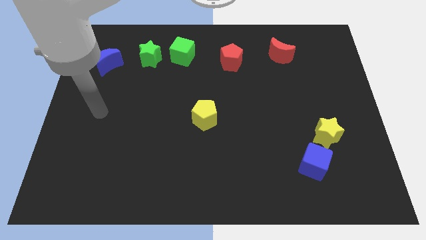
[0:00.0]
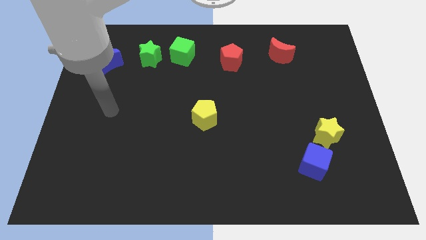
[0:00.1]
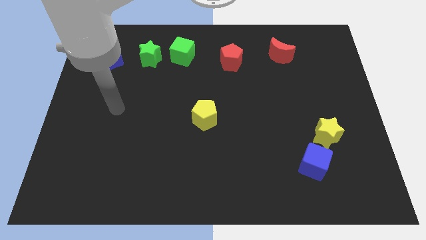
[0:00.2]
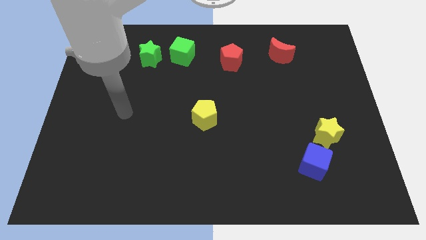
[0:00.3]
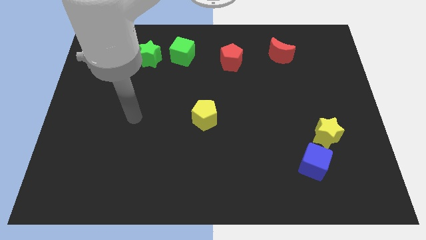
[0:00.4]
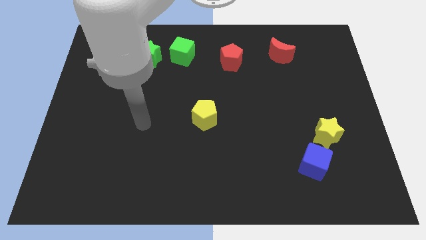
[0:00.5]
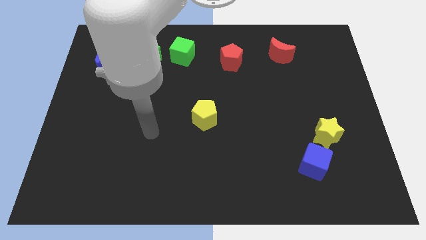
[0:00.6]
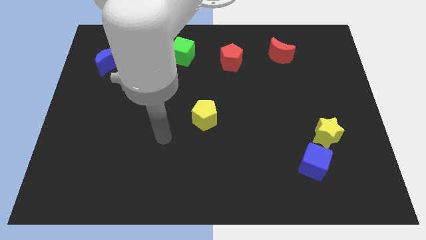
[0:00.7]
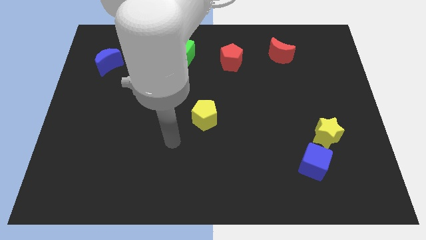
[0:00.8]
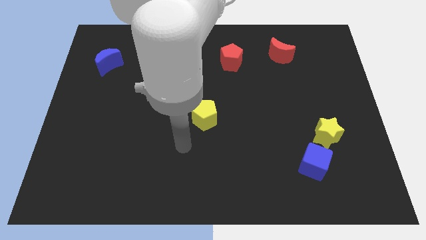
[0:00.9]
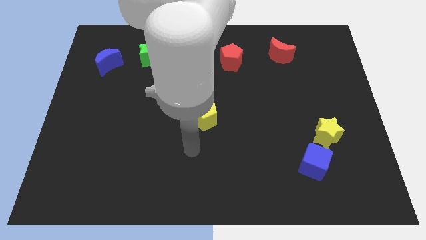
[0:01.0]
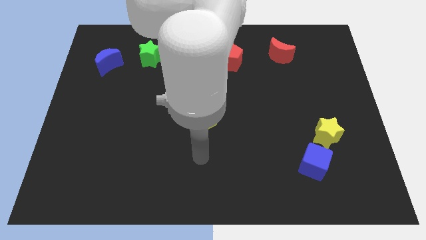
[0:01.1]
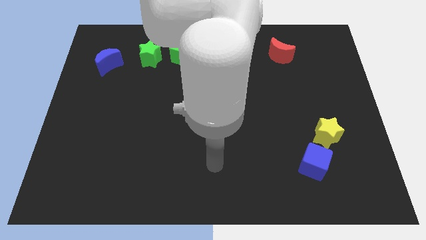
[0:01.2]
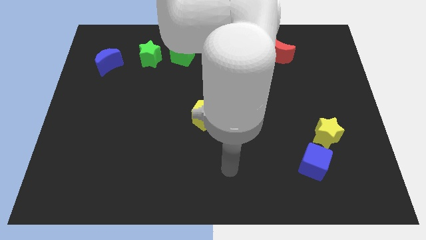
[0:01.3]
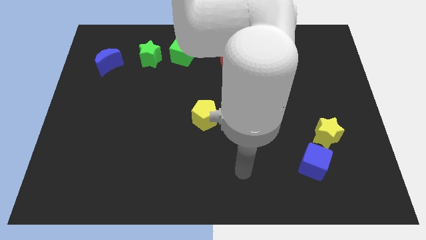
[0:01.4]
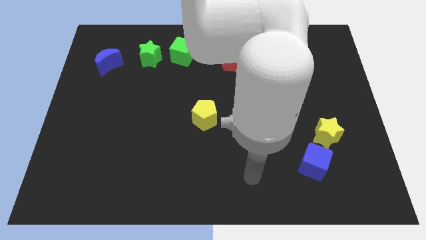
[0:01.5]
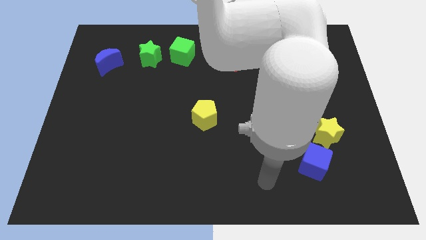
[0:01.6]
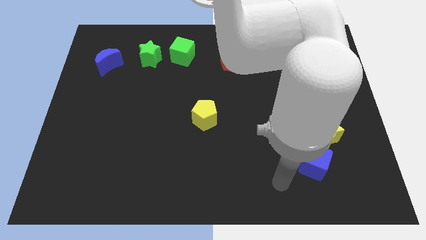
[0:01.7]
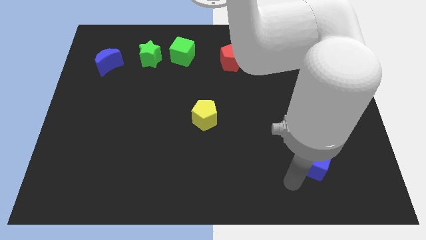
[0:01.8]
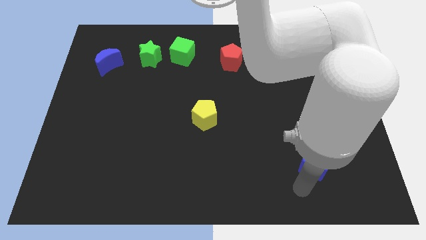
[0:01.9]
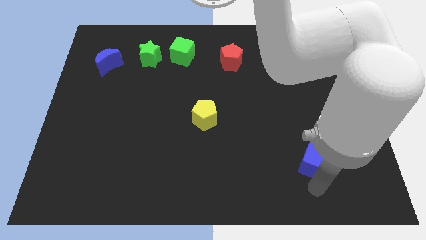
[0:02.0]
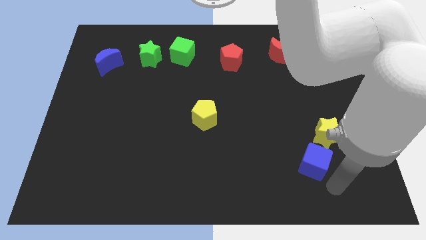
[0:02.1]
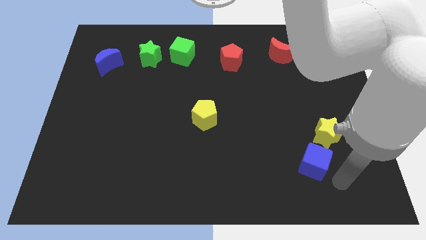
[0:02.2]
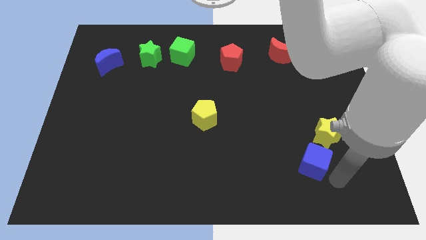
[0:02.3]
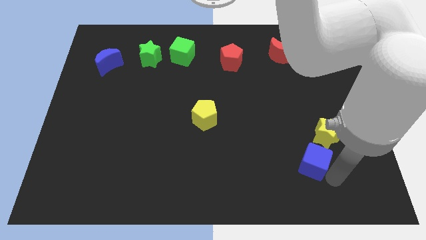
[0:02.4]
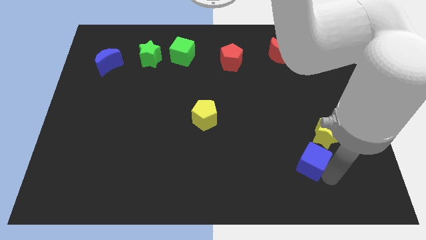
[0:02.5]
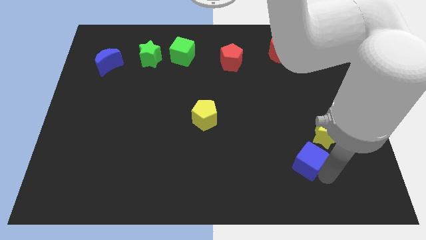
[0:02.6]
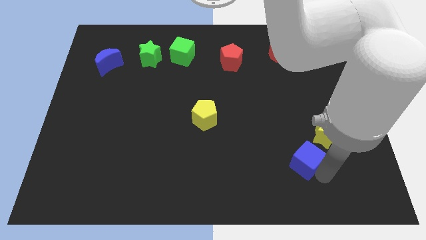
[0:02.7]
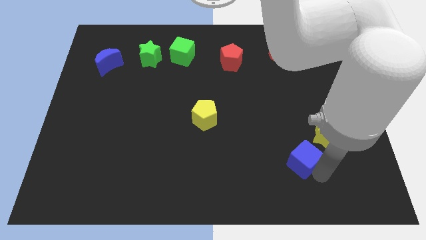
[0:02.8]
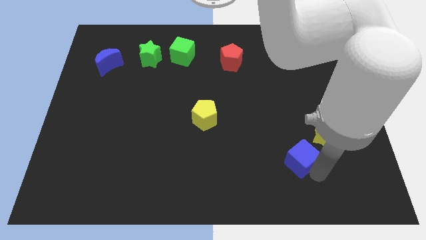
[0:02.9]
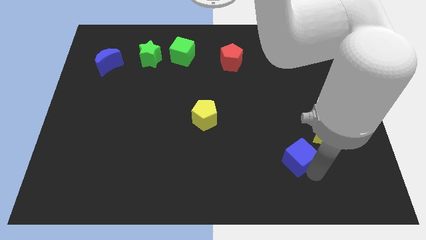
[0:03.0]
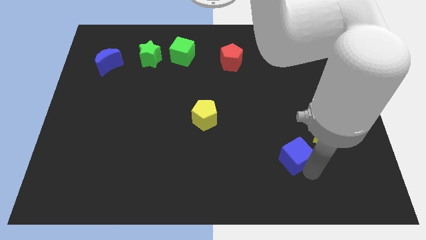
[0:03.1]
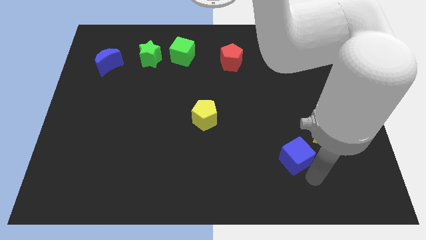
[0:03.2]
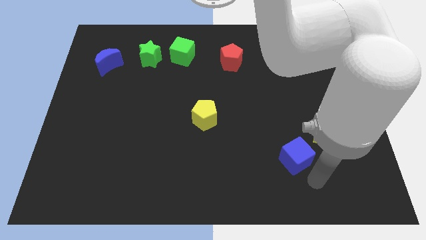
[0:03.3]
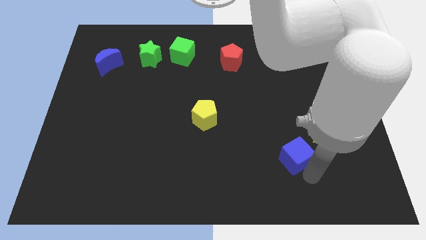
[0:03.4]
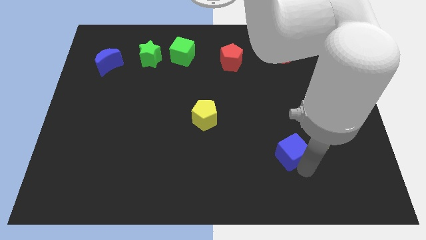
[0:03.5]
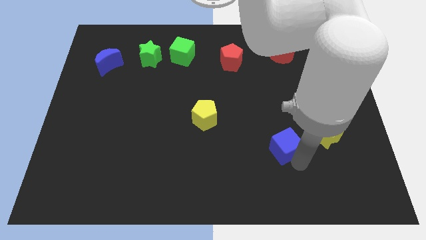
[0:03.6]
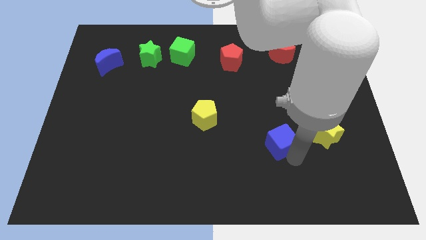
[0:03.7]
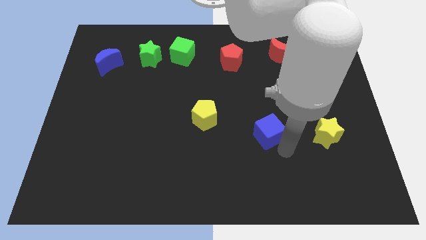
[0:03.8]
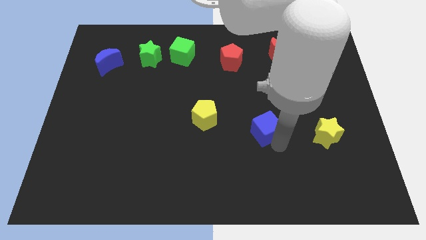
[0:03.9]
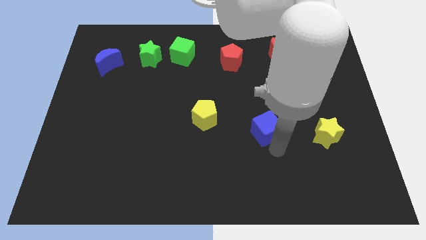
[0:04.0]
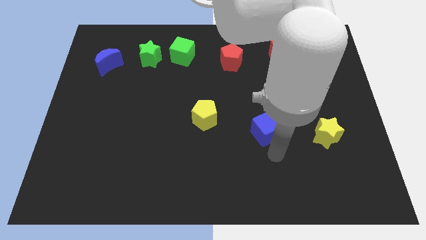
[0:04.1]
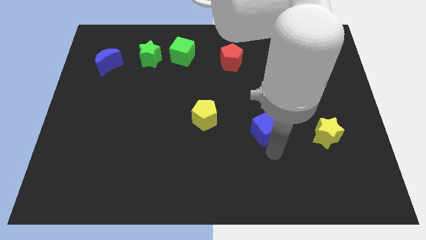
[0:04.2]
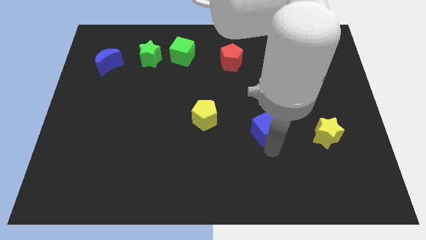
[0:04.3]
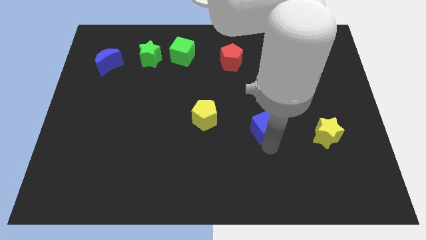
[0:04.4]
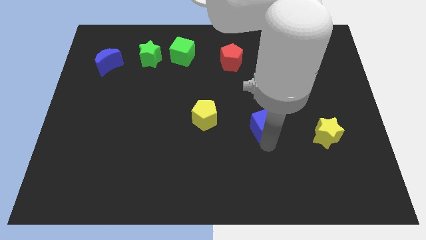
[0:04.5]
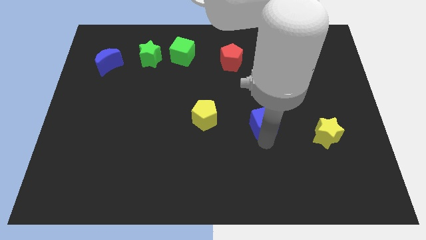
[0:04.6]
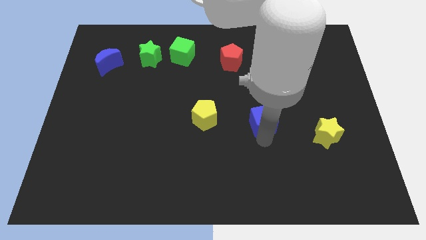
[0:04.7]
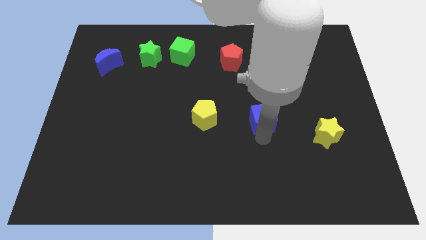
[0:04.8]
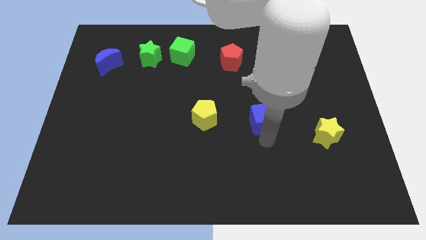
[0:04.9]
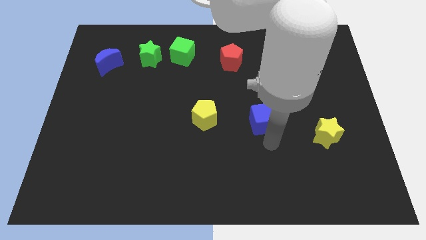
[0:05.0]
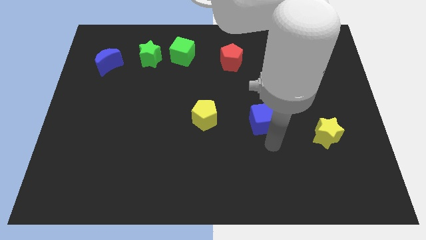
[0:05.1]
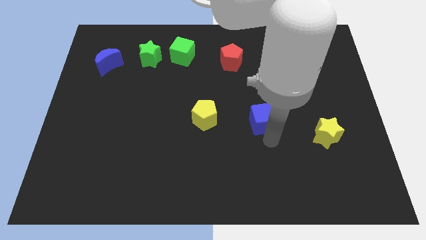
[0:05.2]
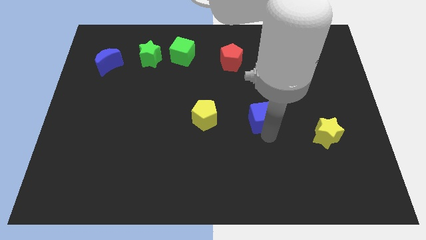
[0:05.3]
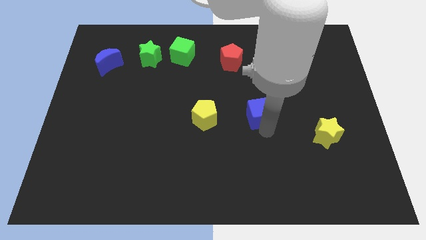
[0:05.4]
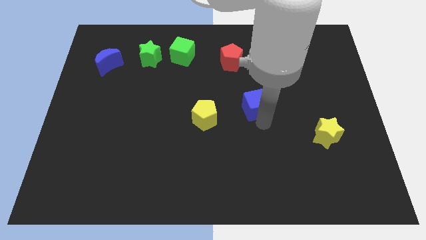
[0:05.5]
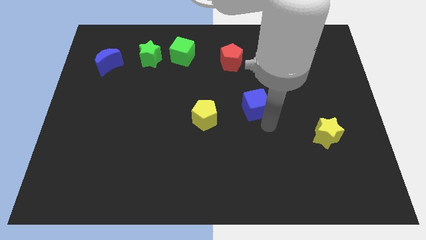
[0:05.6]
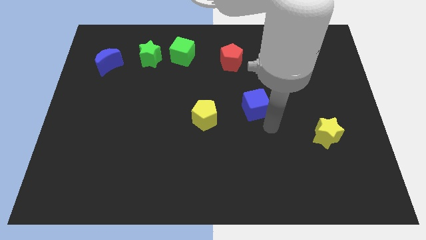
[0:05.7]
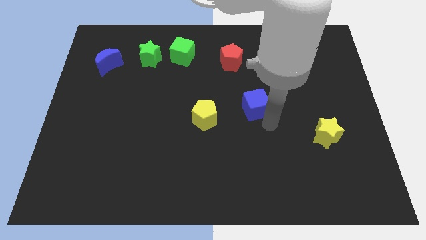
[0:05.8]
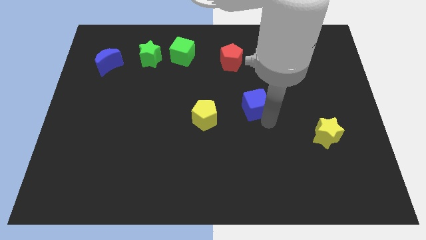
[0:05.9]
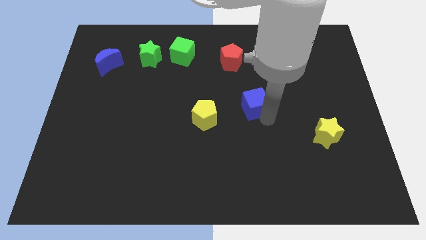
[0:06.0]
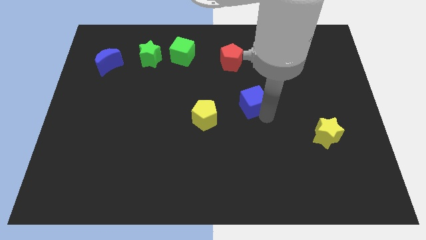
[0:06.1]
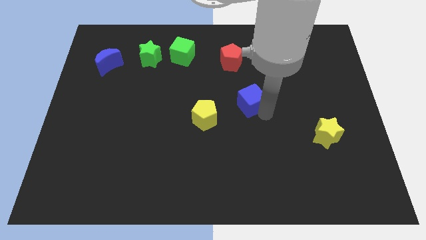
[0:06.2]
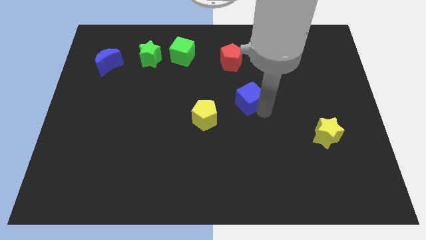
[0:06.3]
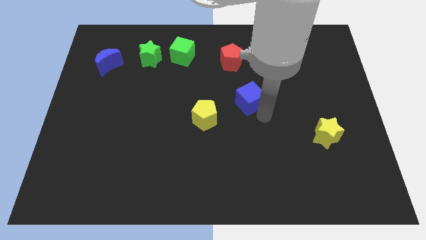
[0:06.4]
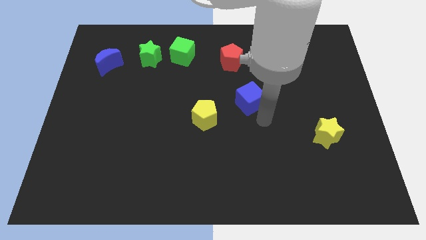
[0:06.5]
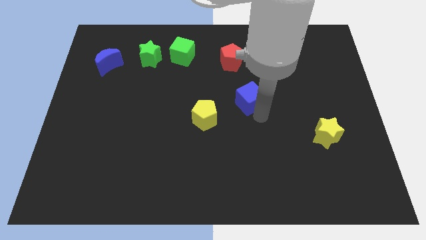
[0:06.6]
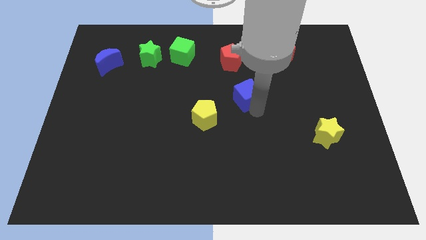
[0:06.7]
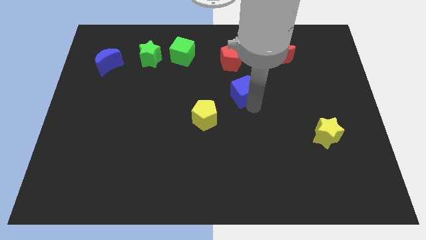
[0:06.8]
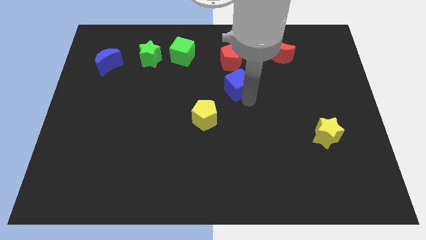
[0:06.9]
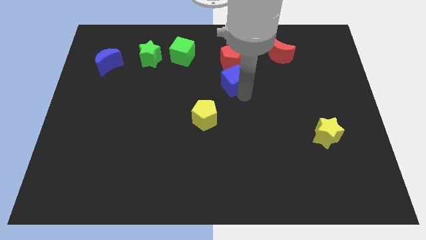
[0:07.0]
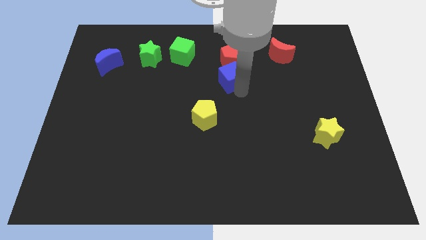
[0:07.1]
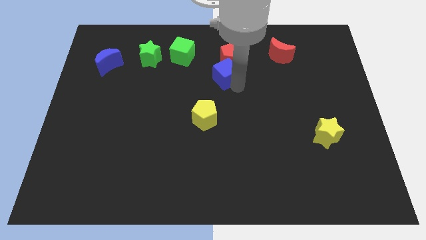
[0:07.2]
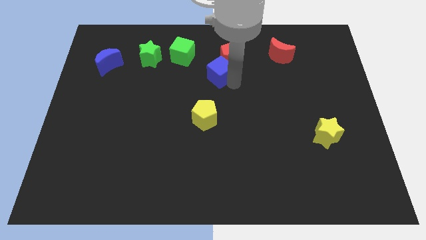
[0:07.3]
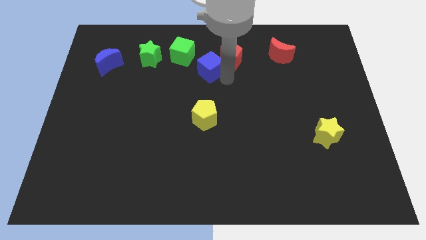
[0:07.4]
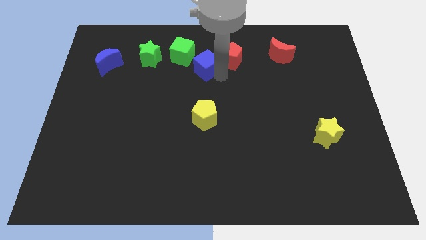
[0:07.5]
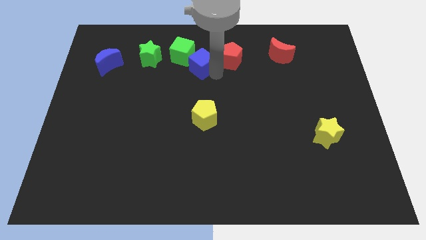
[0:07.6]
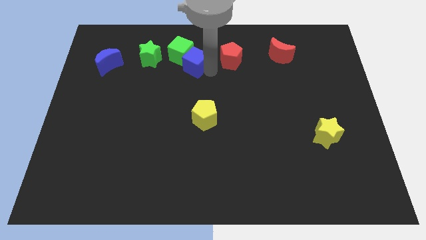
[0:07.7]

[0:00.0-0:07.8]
put the blue cube next to the green cube

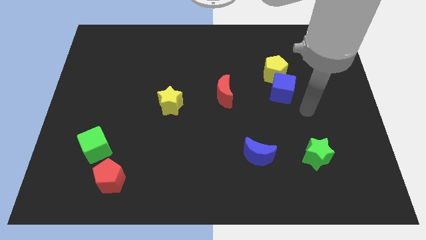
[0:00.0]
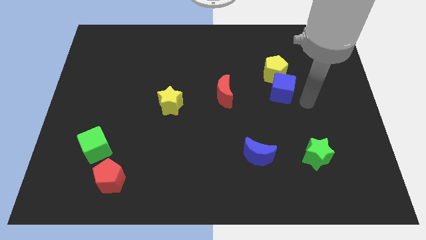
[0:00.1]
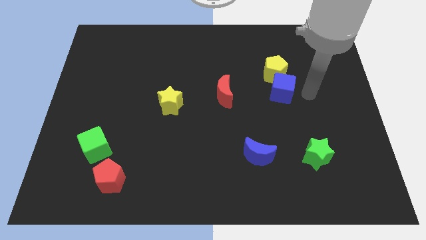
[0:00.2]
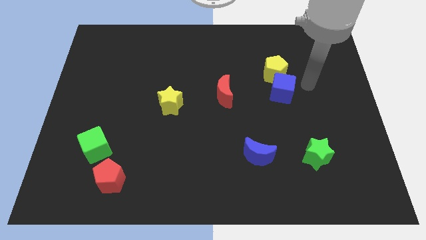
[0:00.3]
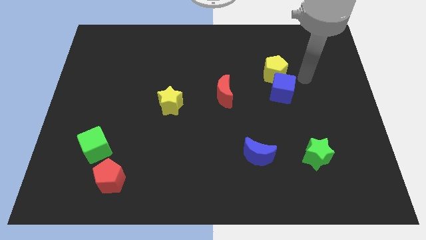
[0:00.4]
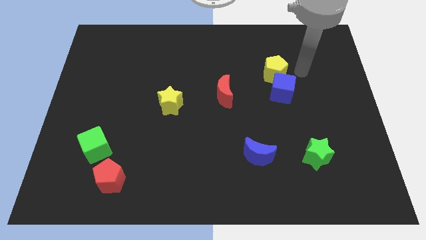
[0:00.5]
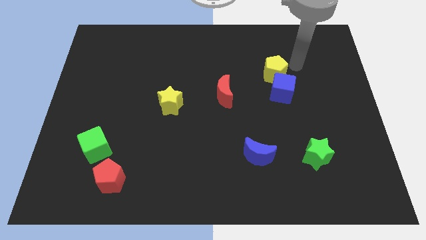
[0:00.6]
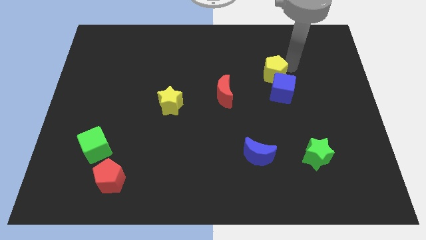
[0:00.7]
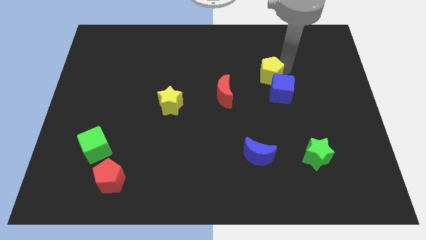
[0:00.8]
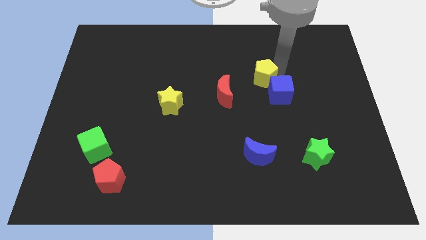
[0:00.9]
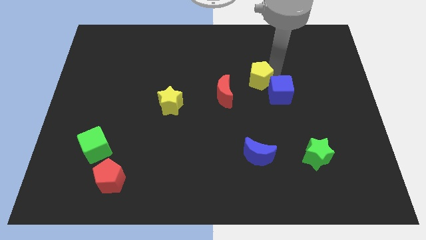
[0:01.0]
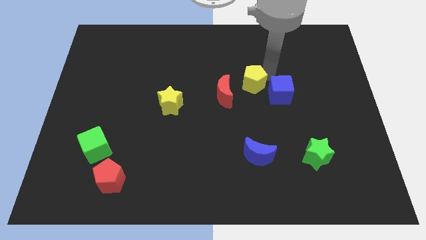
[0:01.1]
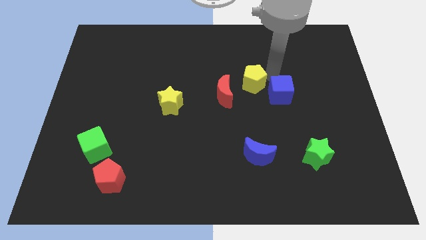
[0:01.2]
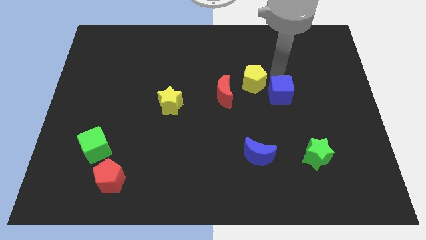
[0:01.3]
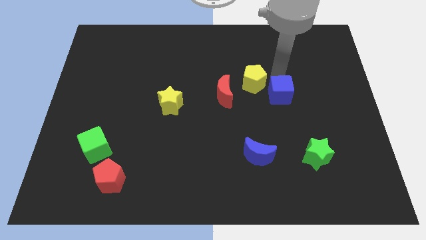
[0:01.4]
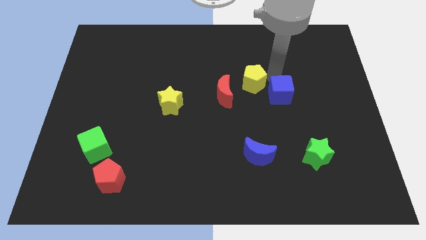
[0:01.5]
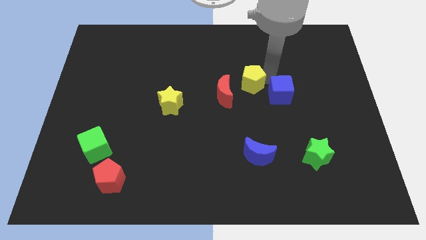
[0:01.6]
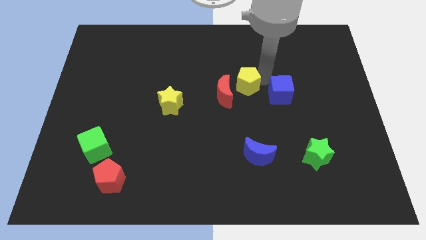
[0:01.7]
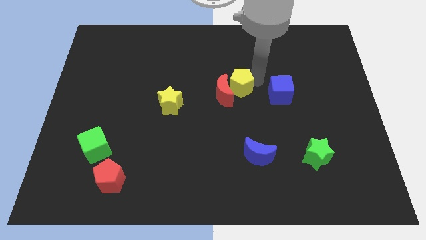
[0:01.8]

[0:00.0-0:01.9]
put the yellow pentagon to the red moon
